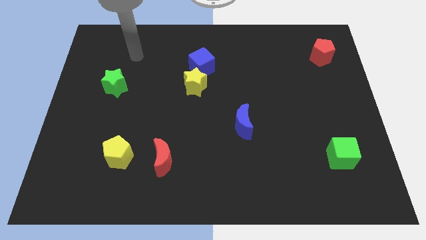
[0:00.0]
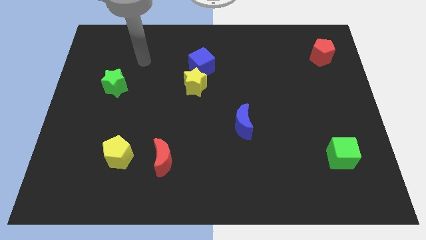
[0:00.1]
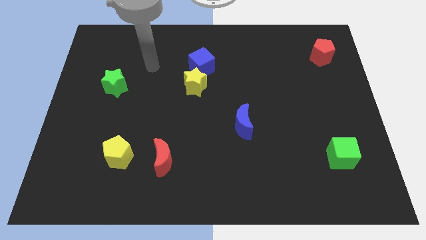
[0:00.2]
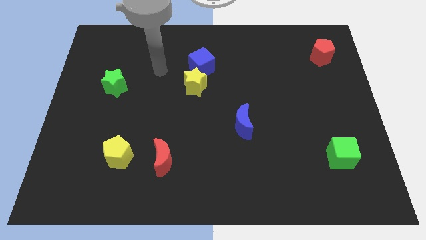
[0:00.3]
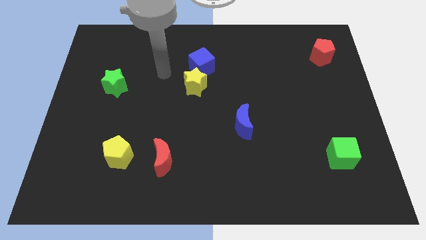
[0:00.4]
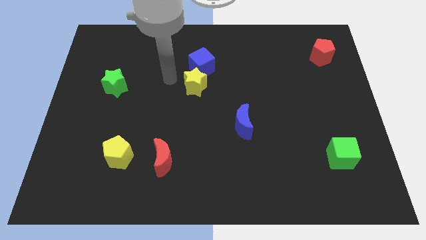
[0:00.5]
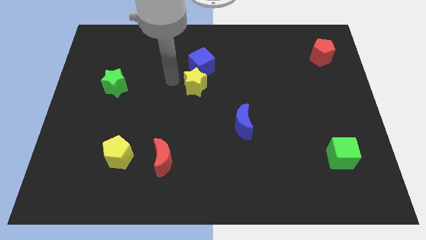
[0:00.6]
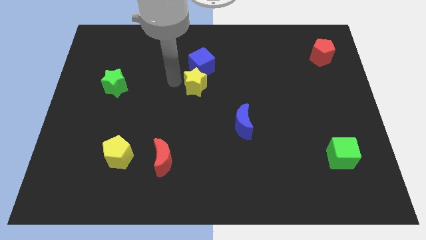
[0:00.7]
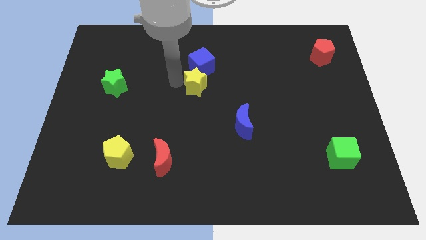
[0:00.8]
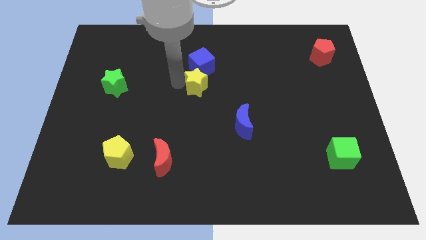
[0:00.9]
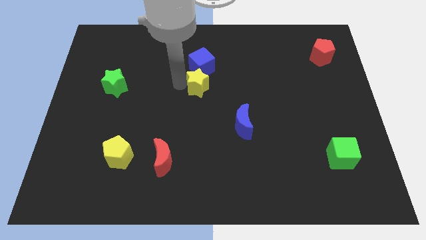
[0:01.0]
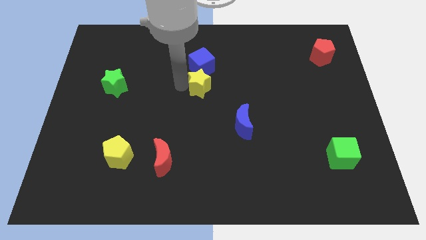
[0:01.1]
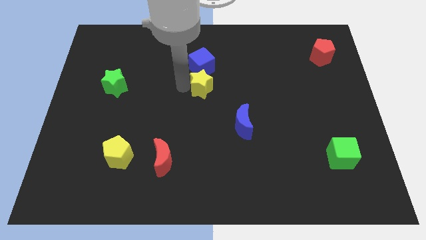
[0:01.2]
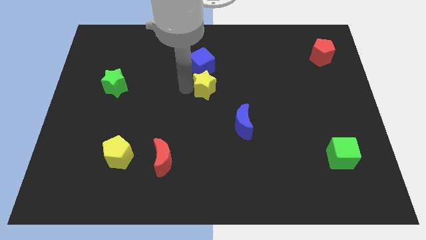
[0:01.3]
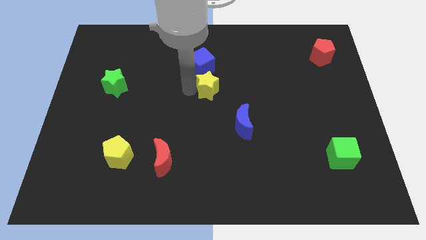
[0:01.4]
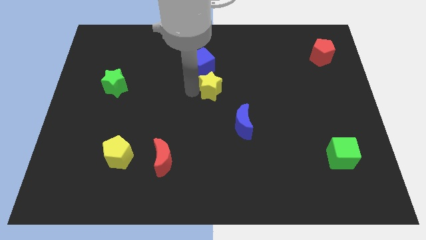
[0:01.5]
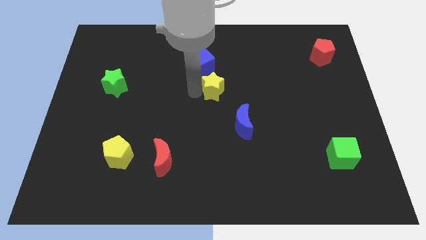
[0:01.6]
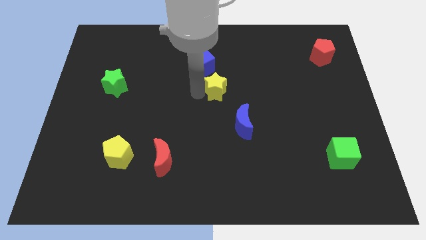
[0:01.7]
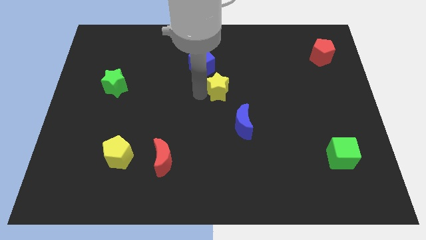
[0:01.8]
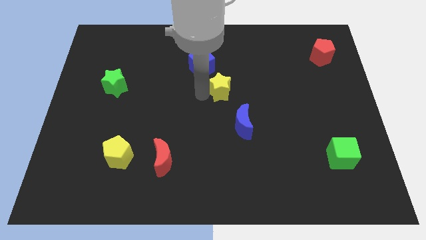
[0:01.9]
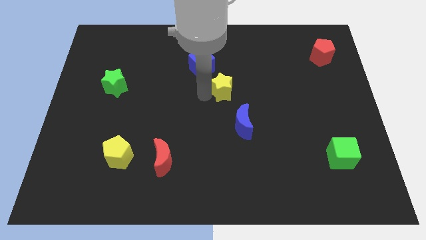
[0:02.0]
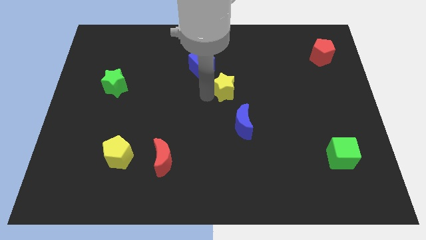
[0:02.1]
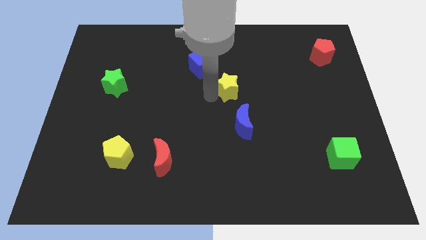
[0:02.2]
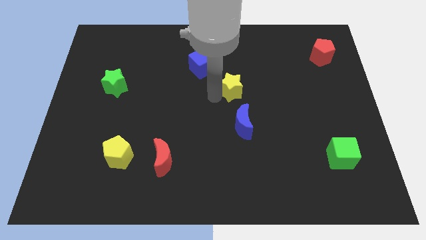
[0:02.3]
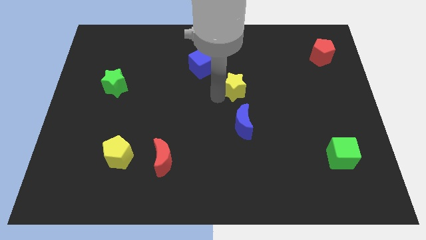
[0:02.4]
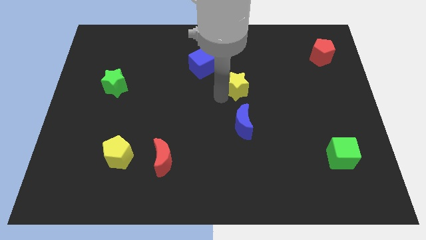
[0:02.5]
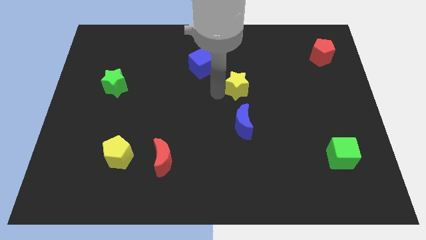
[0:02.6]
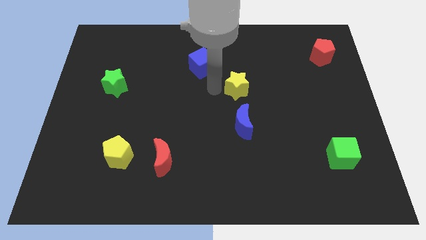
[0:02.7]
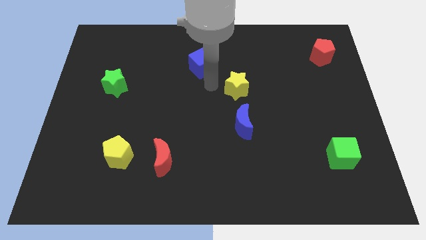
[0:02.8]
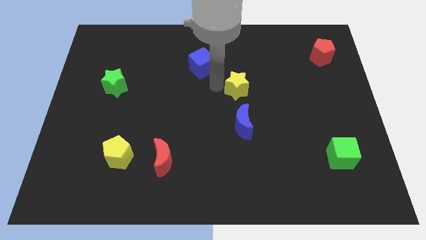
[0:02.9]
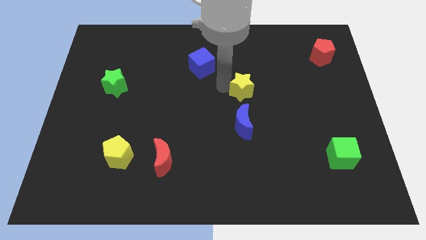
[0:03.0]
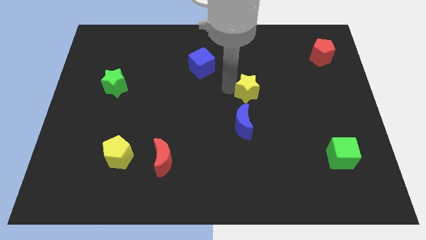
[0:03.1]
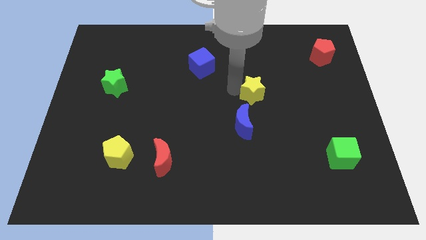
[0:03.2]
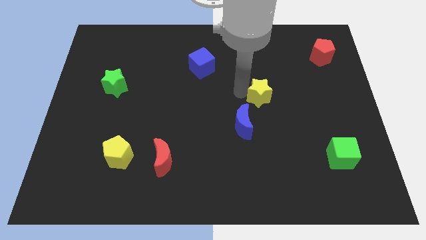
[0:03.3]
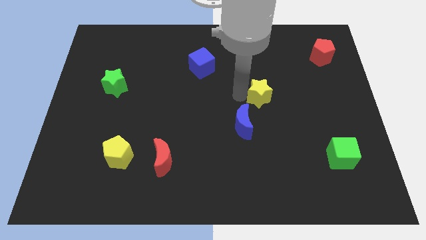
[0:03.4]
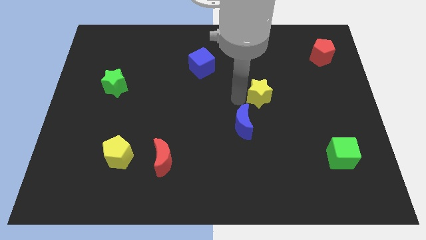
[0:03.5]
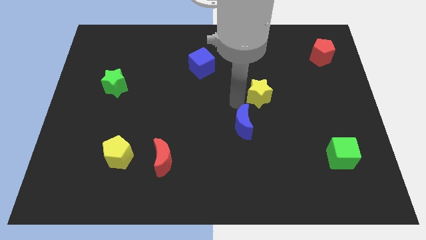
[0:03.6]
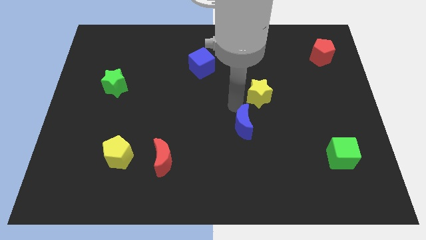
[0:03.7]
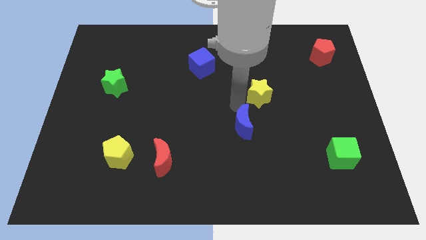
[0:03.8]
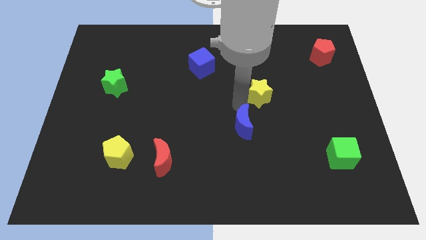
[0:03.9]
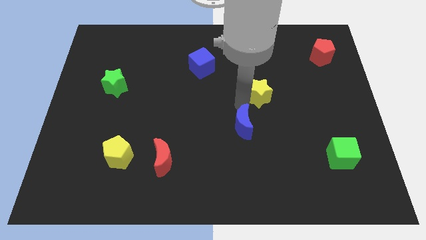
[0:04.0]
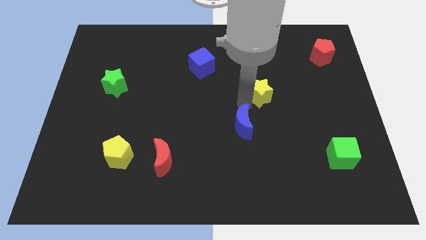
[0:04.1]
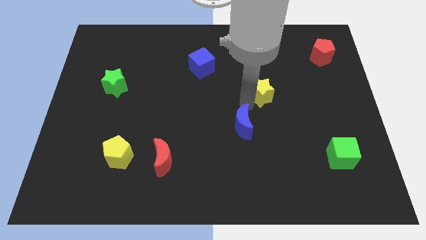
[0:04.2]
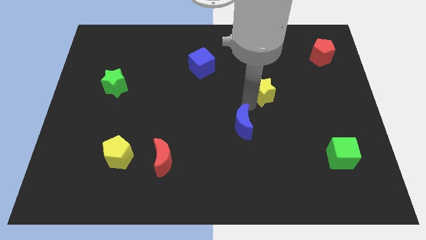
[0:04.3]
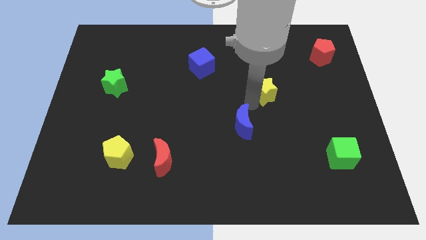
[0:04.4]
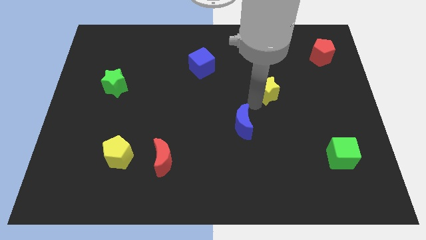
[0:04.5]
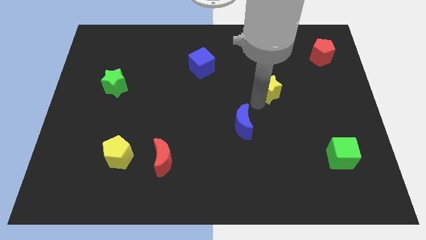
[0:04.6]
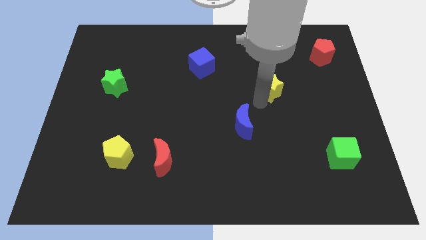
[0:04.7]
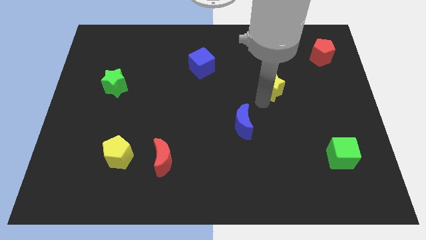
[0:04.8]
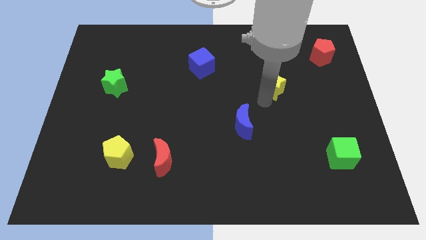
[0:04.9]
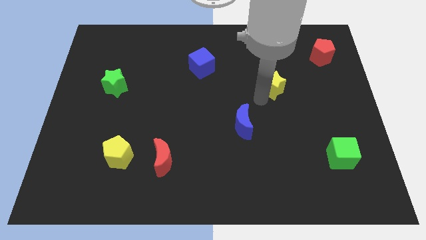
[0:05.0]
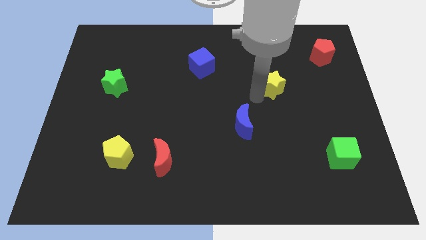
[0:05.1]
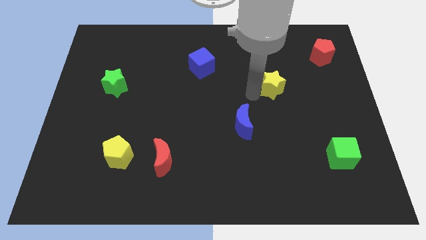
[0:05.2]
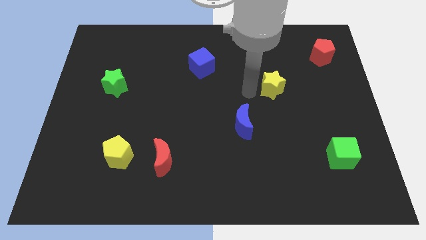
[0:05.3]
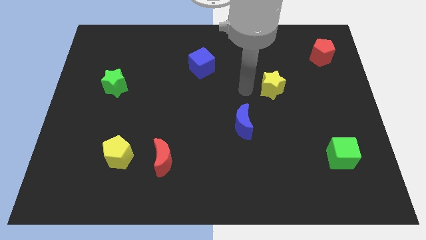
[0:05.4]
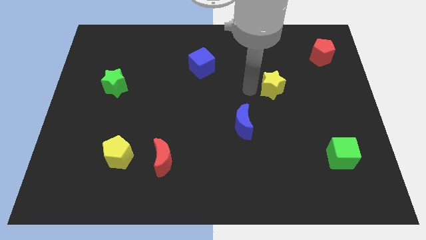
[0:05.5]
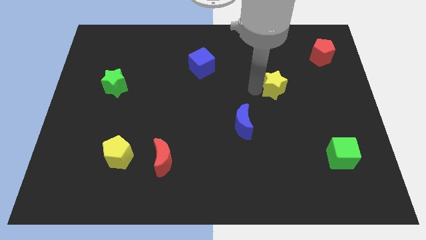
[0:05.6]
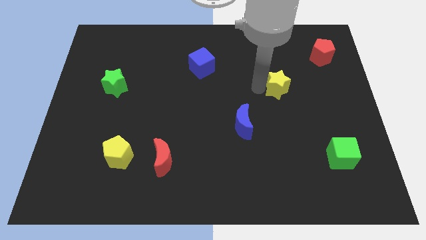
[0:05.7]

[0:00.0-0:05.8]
move the yellow star to the right

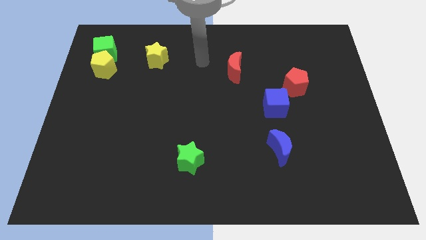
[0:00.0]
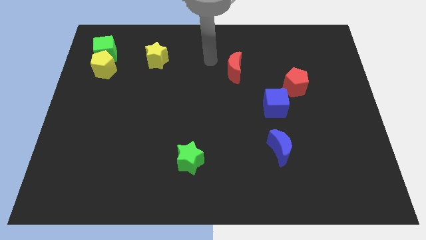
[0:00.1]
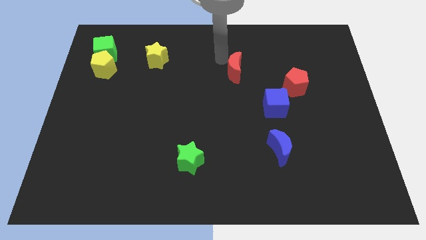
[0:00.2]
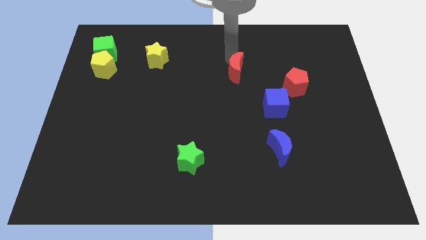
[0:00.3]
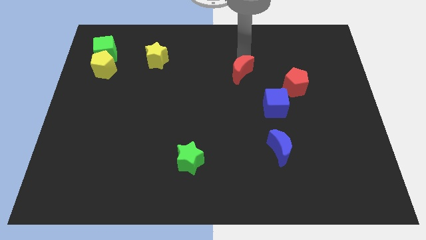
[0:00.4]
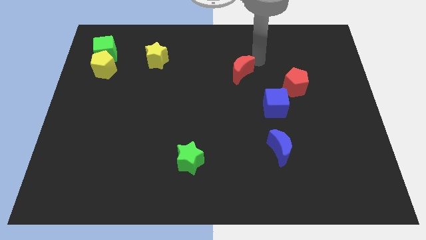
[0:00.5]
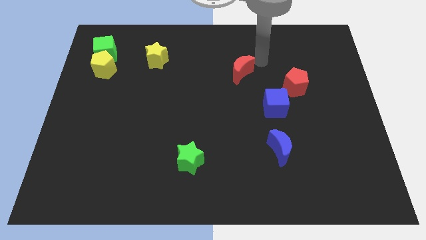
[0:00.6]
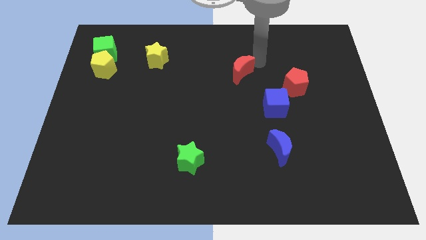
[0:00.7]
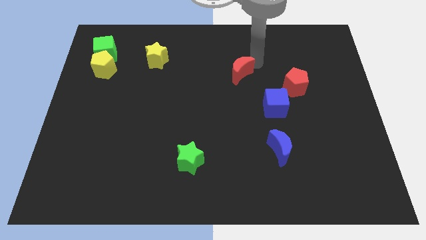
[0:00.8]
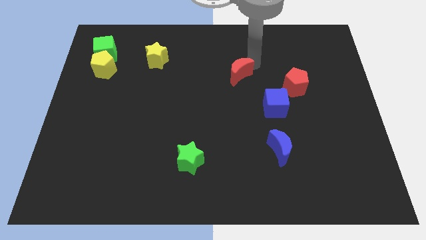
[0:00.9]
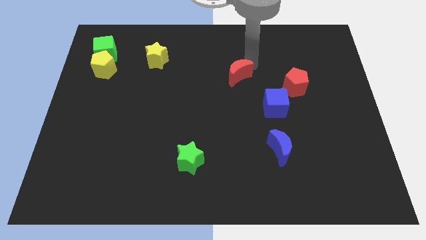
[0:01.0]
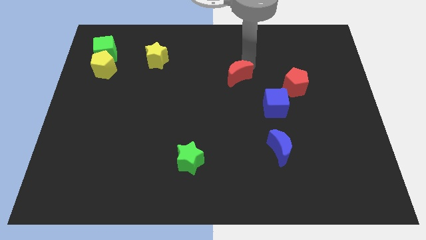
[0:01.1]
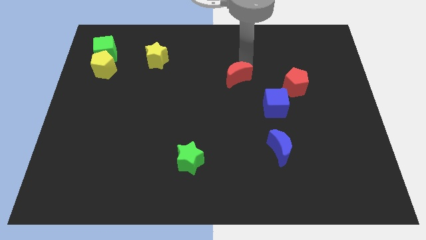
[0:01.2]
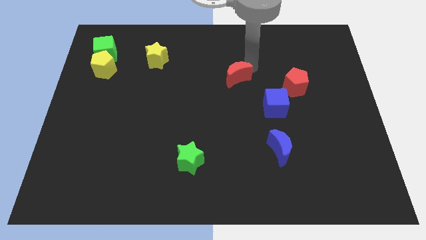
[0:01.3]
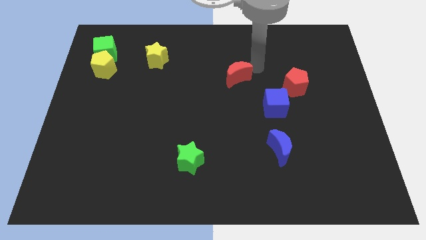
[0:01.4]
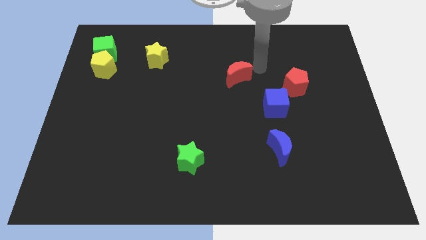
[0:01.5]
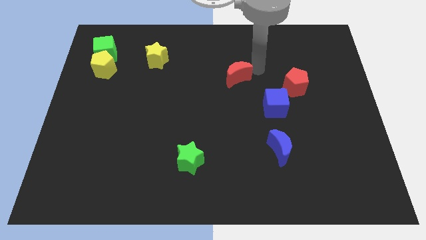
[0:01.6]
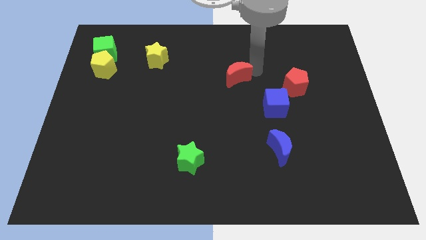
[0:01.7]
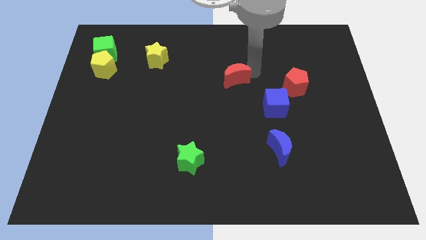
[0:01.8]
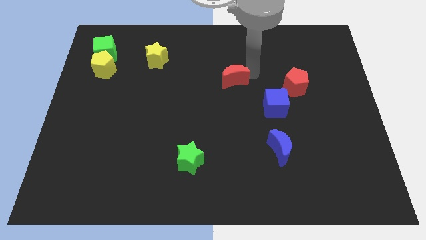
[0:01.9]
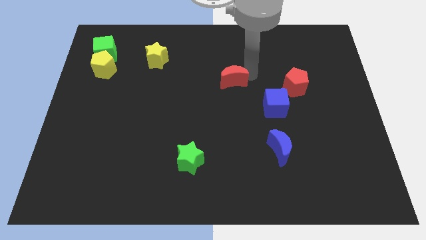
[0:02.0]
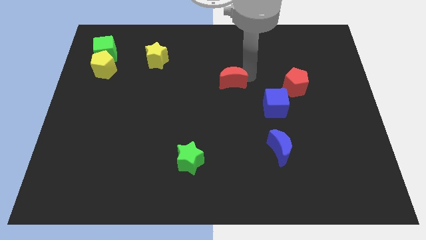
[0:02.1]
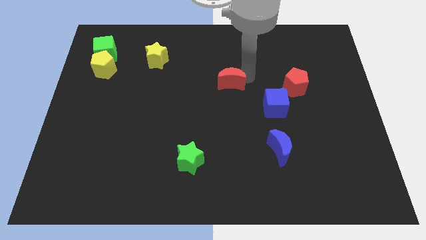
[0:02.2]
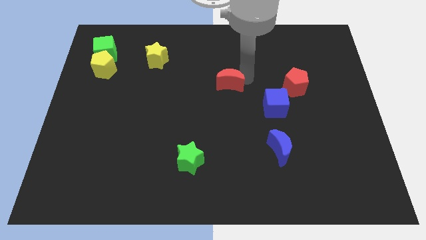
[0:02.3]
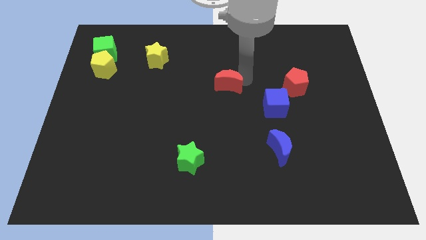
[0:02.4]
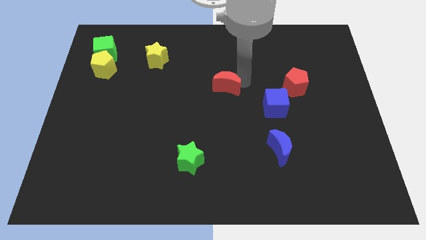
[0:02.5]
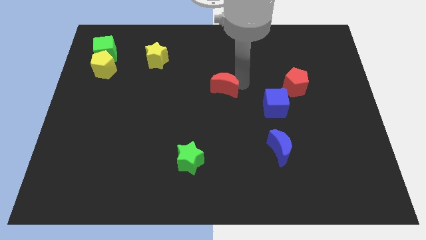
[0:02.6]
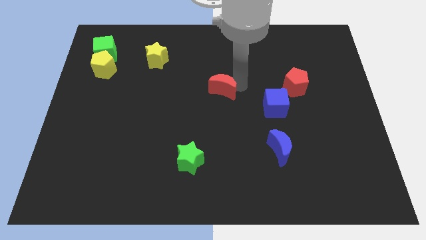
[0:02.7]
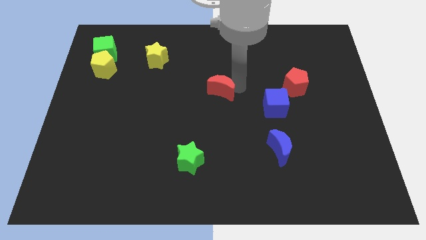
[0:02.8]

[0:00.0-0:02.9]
move the red moon slightly diagonally downwards and to the left
